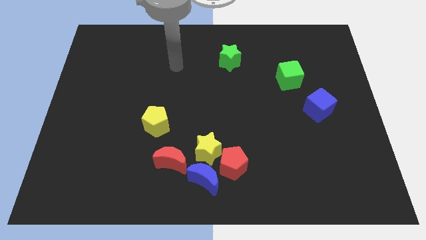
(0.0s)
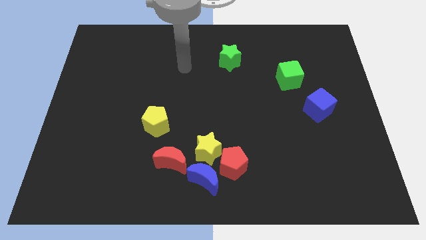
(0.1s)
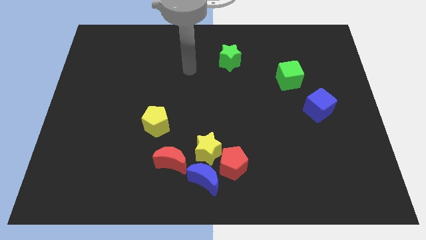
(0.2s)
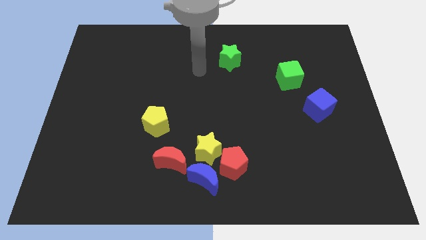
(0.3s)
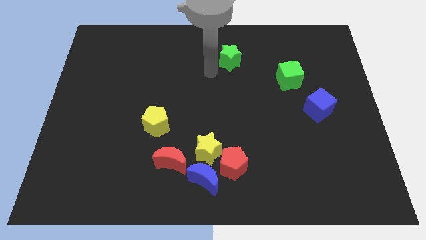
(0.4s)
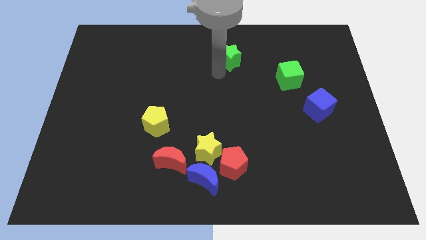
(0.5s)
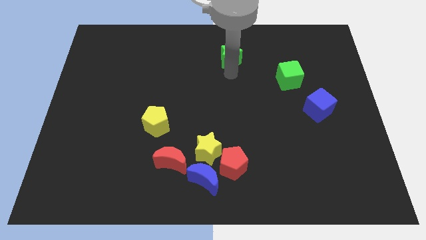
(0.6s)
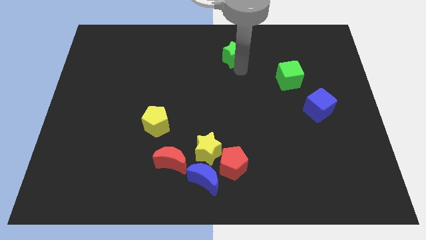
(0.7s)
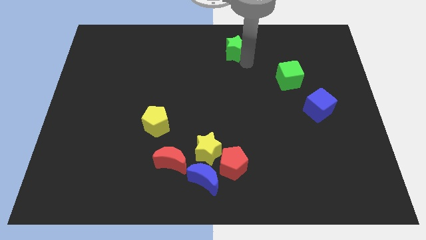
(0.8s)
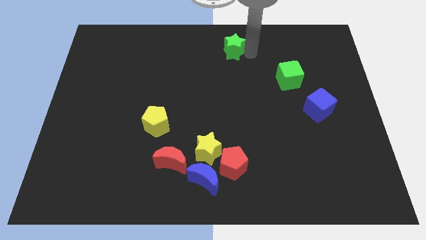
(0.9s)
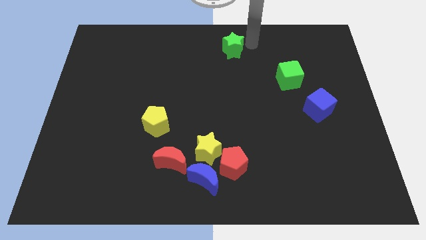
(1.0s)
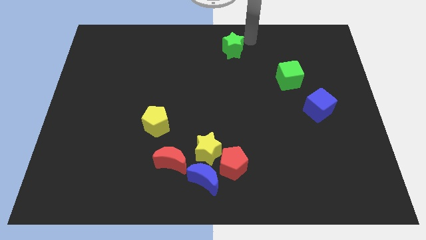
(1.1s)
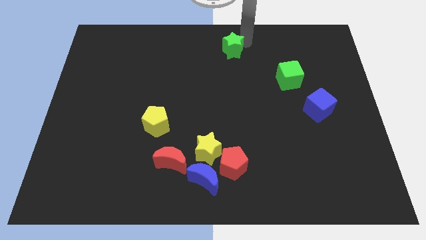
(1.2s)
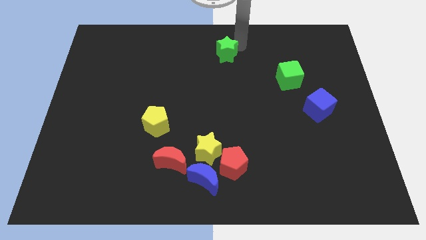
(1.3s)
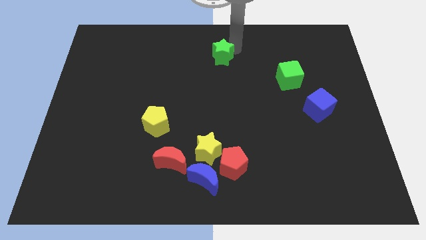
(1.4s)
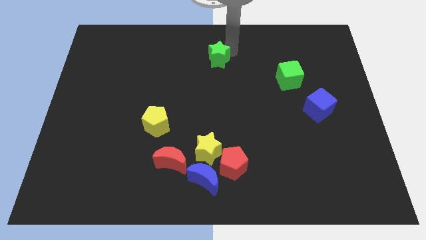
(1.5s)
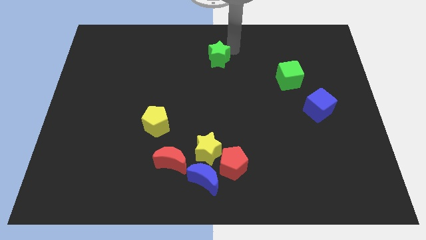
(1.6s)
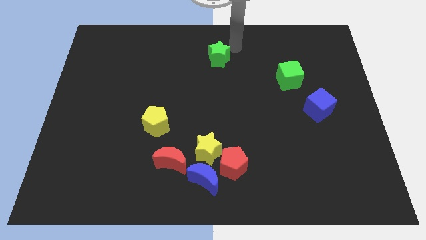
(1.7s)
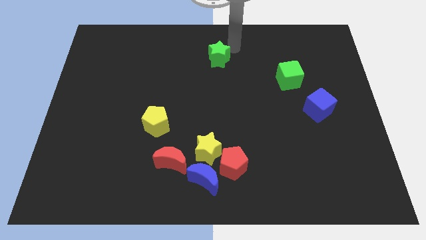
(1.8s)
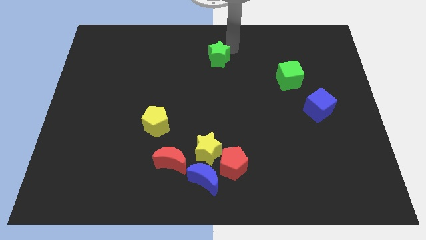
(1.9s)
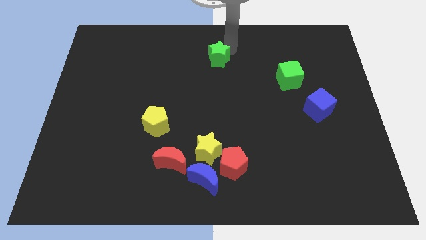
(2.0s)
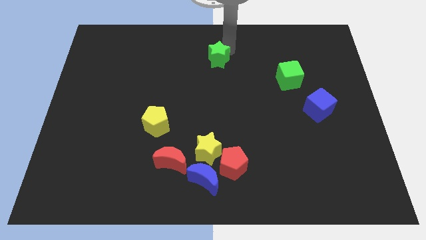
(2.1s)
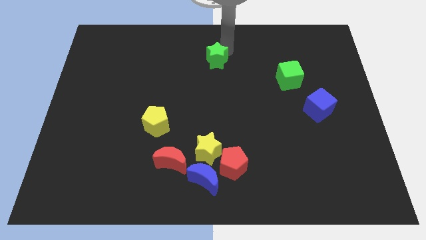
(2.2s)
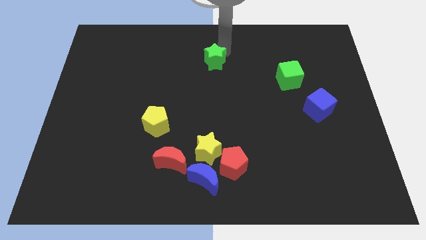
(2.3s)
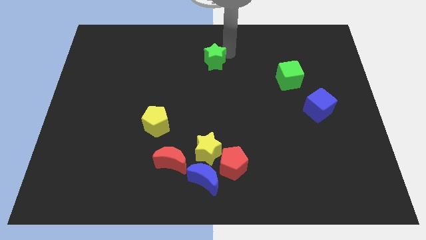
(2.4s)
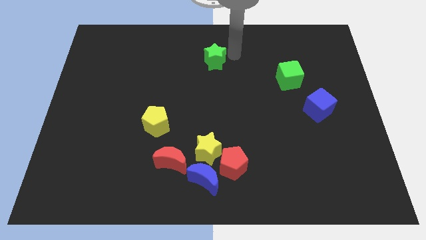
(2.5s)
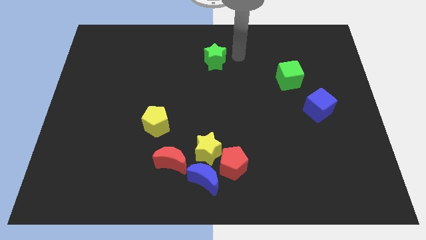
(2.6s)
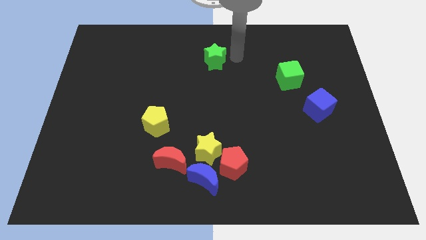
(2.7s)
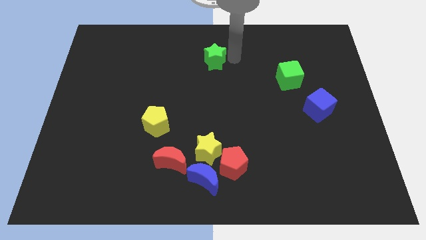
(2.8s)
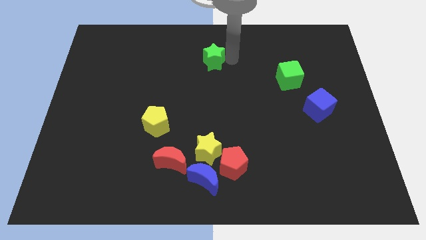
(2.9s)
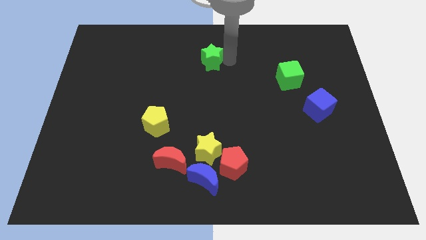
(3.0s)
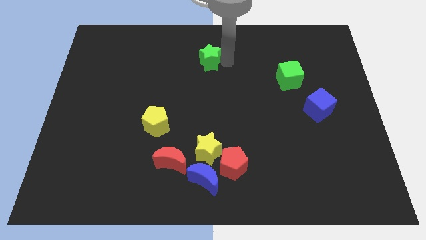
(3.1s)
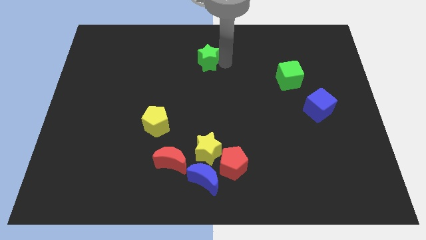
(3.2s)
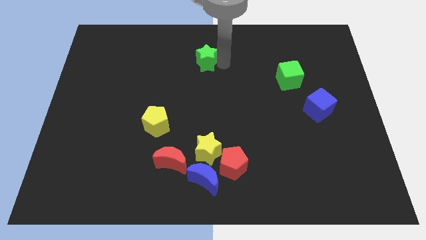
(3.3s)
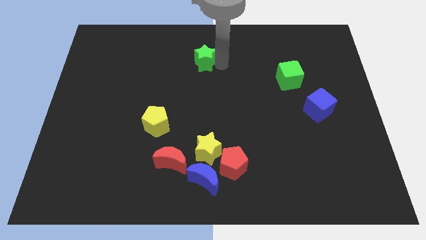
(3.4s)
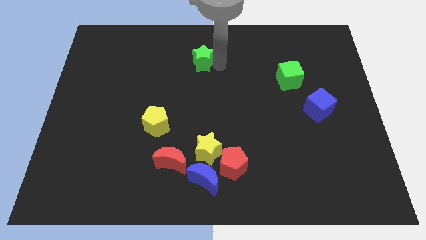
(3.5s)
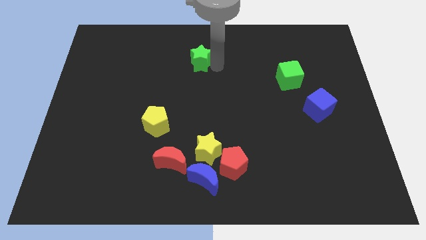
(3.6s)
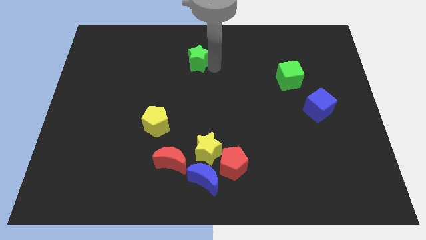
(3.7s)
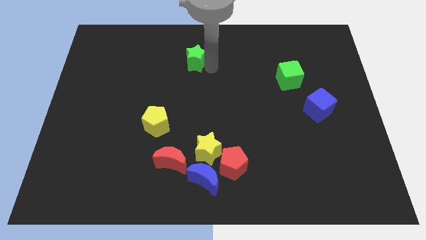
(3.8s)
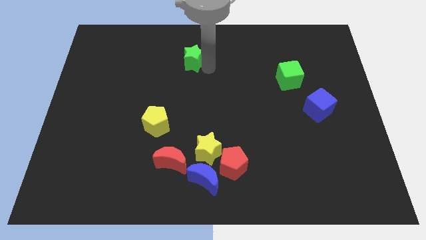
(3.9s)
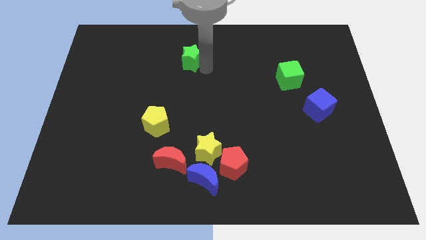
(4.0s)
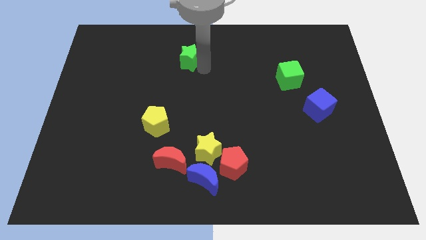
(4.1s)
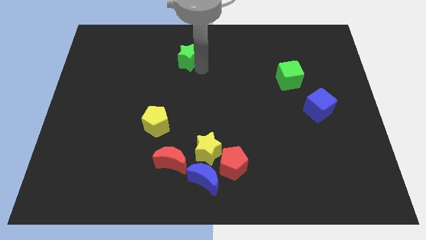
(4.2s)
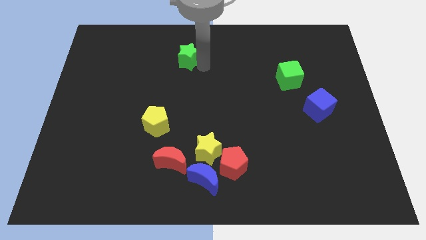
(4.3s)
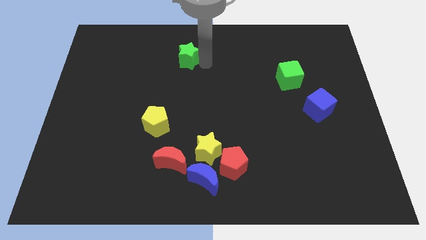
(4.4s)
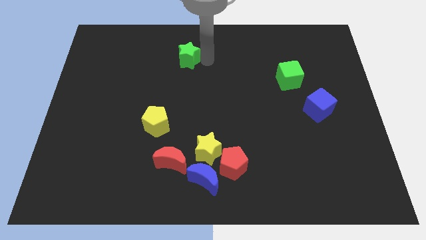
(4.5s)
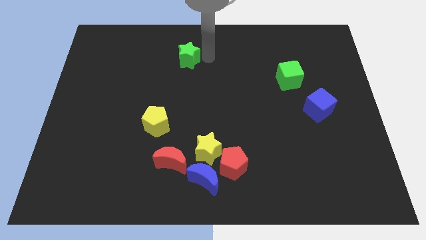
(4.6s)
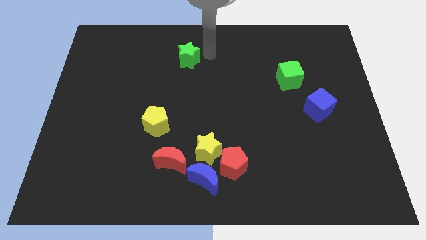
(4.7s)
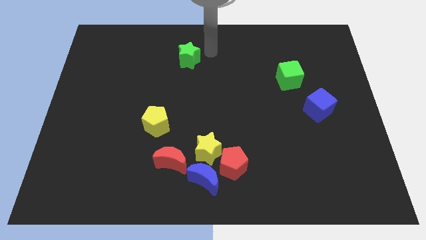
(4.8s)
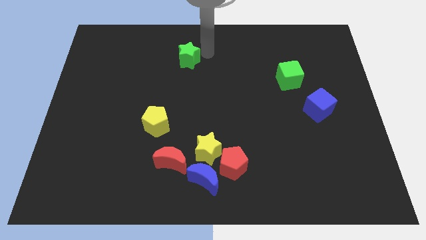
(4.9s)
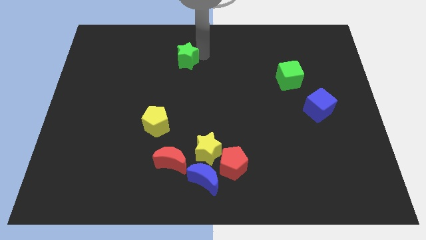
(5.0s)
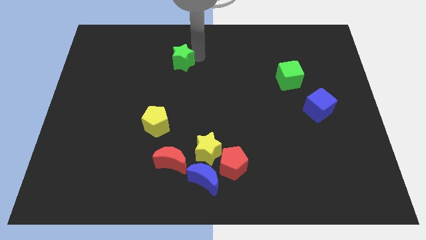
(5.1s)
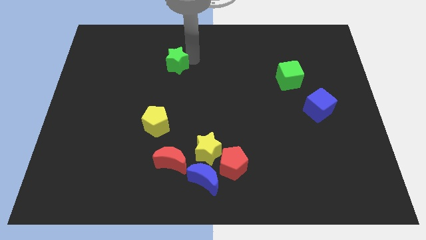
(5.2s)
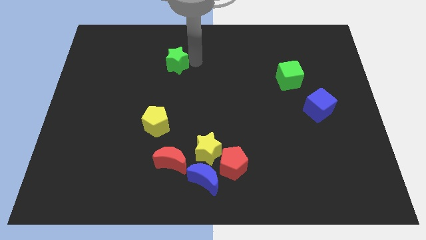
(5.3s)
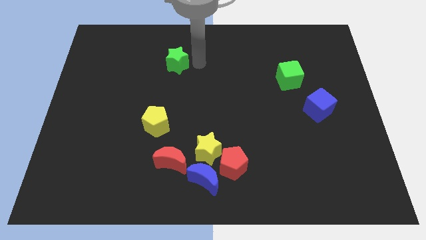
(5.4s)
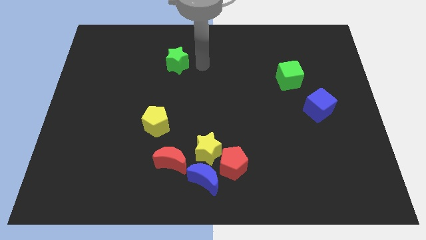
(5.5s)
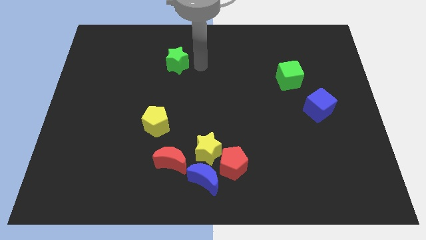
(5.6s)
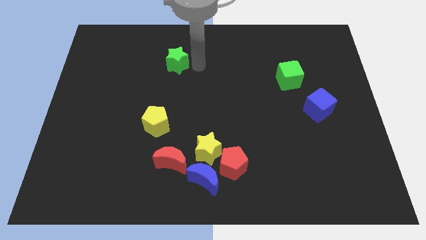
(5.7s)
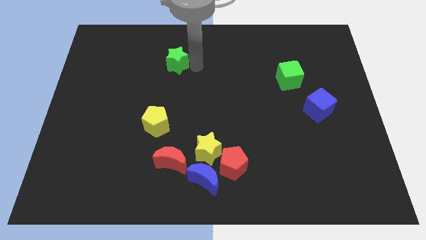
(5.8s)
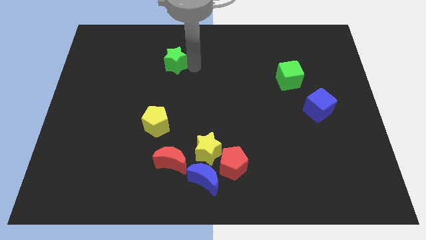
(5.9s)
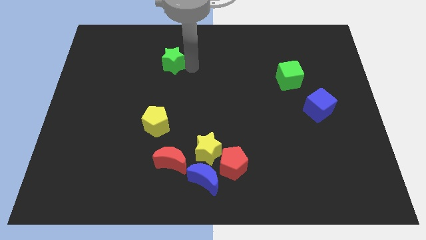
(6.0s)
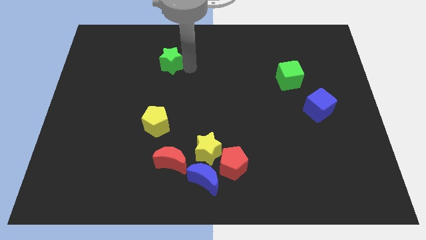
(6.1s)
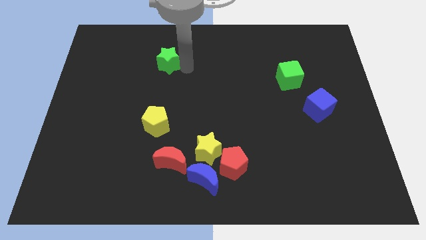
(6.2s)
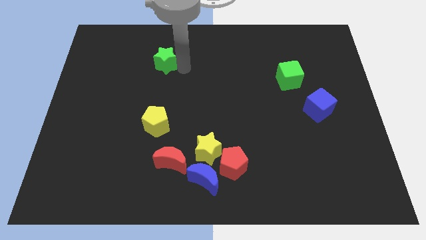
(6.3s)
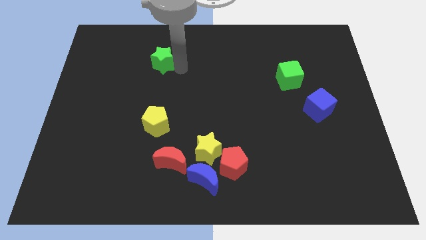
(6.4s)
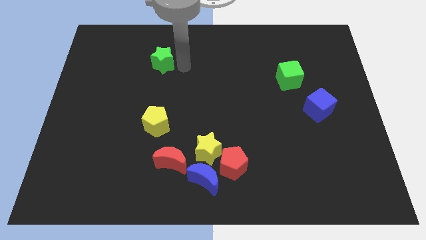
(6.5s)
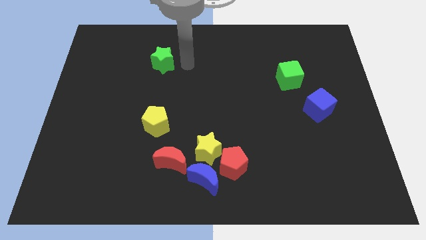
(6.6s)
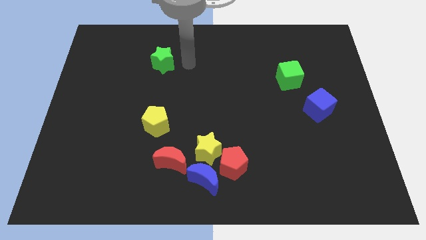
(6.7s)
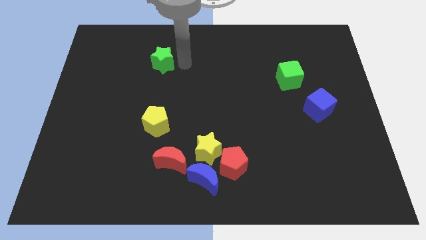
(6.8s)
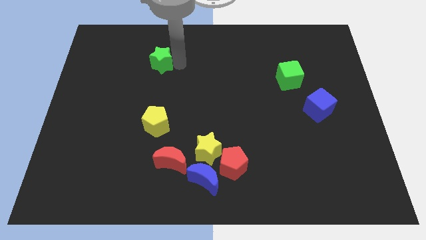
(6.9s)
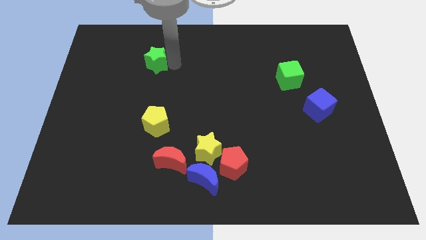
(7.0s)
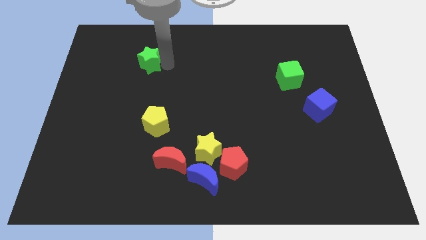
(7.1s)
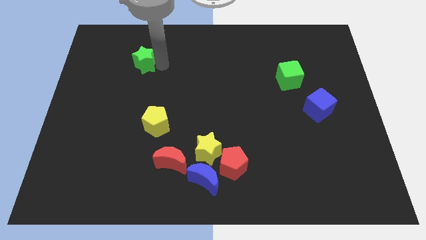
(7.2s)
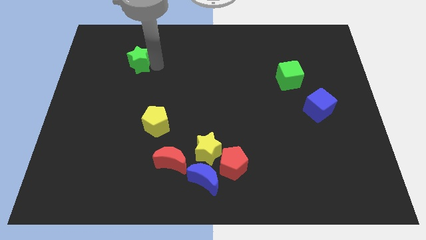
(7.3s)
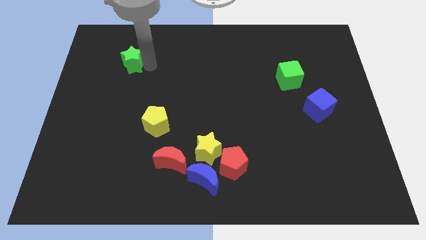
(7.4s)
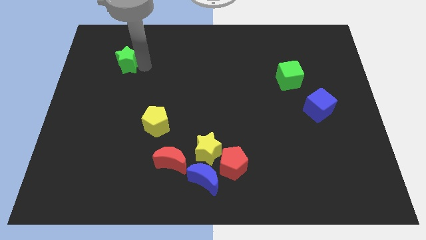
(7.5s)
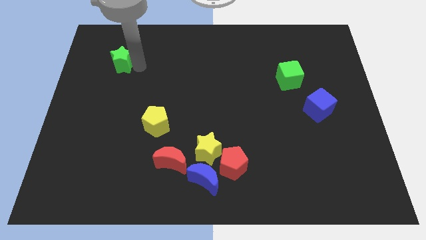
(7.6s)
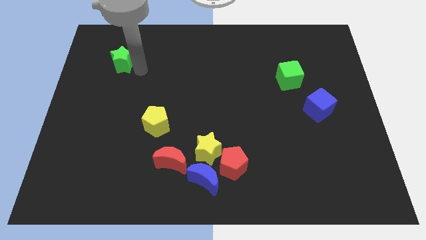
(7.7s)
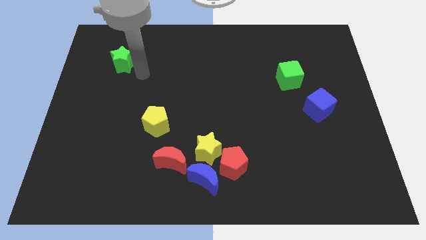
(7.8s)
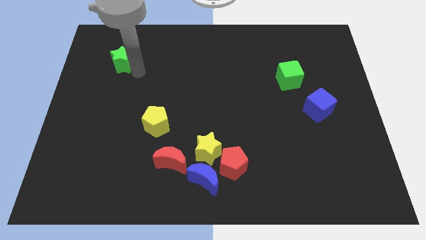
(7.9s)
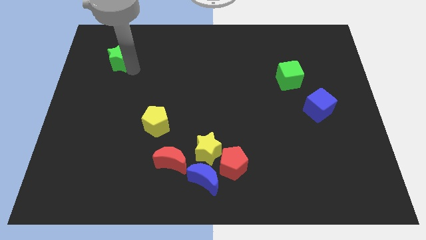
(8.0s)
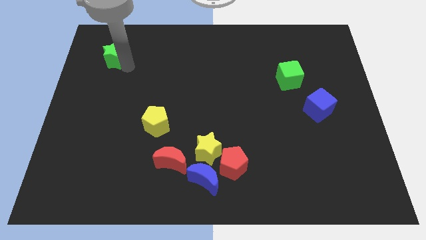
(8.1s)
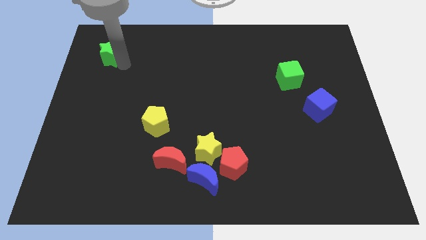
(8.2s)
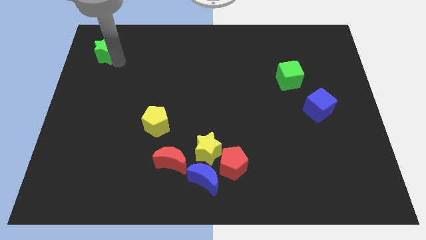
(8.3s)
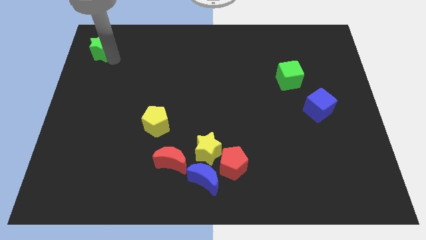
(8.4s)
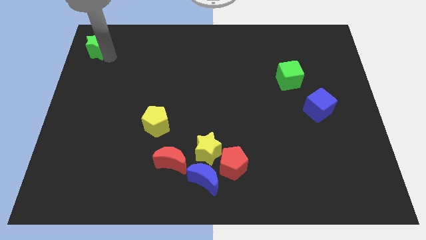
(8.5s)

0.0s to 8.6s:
put the green star to the top left corner
